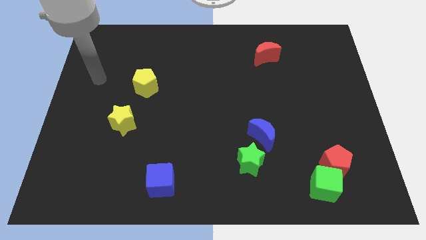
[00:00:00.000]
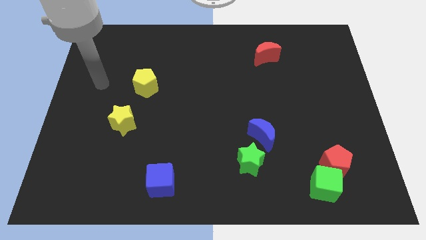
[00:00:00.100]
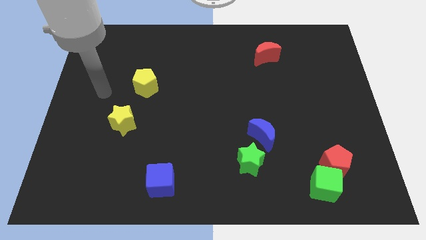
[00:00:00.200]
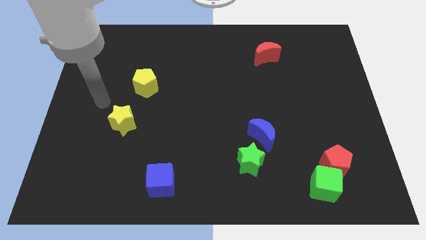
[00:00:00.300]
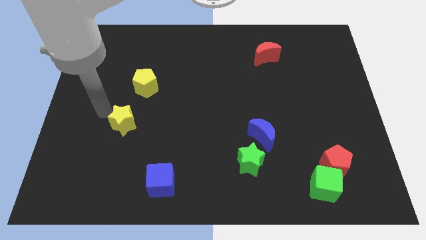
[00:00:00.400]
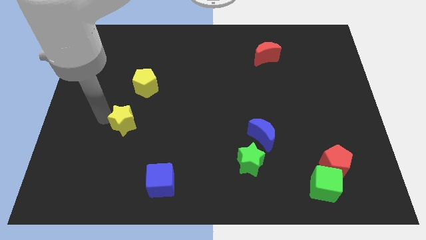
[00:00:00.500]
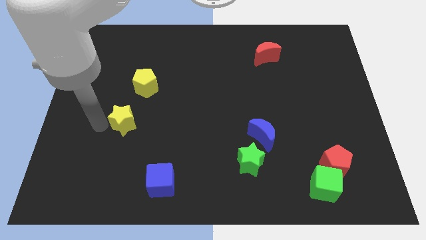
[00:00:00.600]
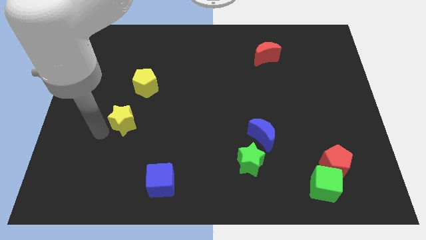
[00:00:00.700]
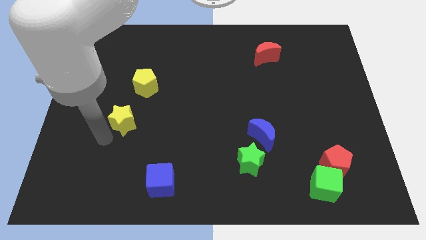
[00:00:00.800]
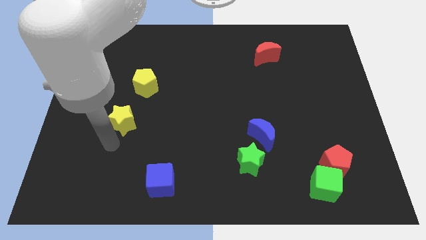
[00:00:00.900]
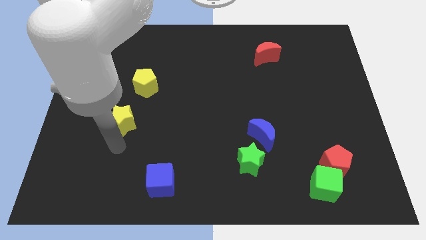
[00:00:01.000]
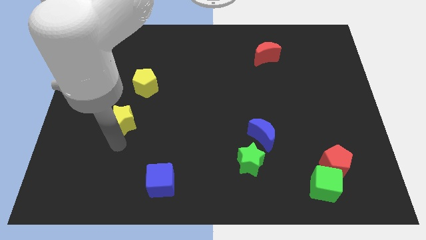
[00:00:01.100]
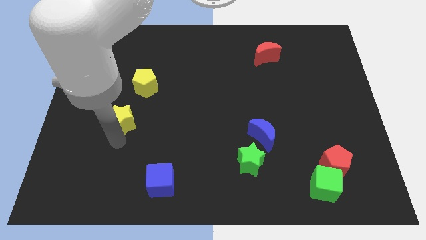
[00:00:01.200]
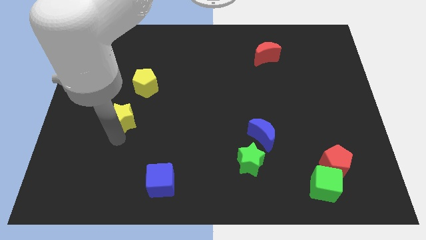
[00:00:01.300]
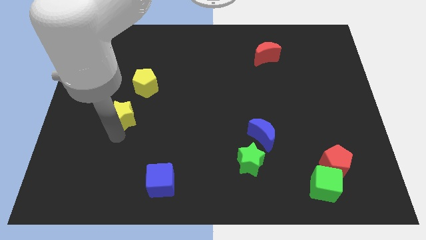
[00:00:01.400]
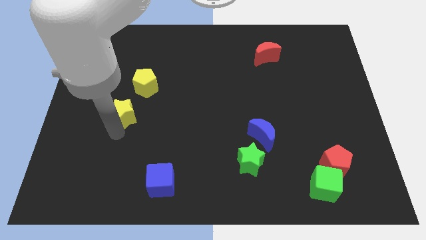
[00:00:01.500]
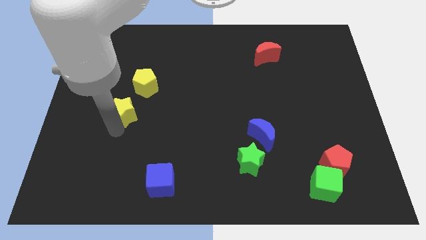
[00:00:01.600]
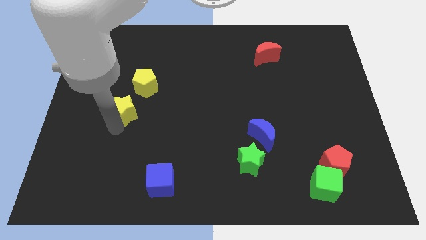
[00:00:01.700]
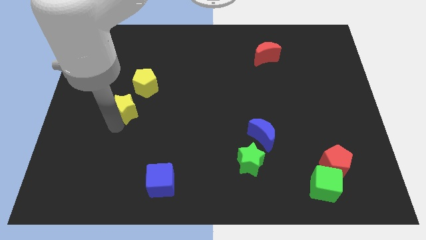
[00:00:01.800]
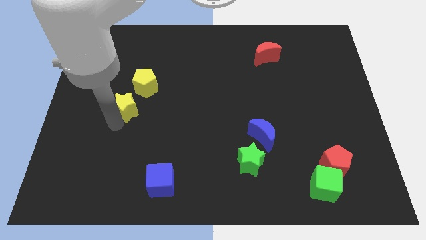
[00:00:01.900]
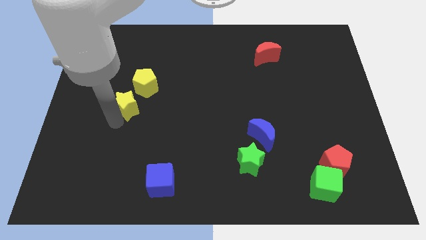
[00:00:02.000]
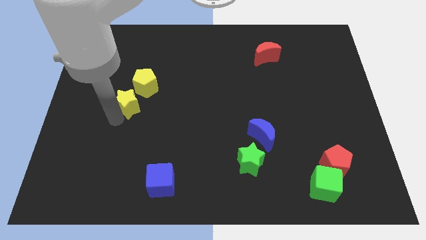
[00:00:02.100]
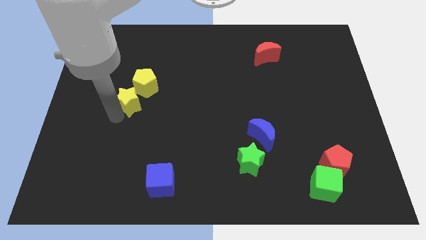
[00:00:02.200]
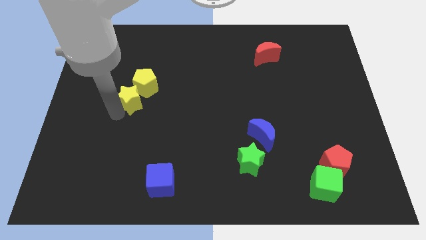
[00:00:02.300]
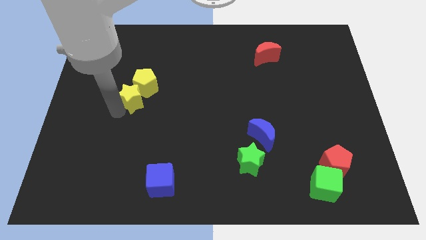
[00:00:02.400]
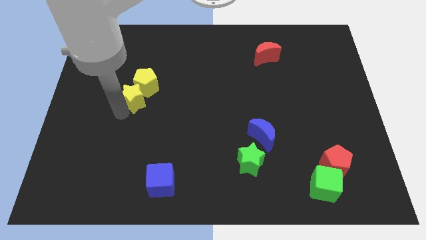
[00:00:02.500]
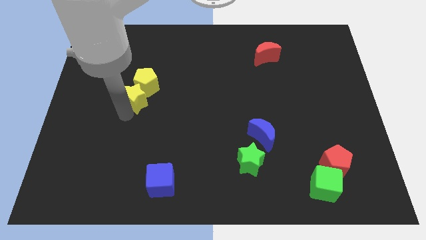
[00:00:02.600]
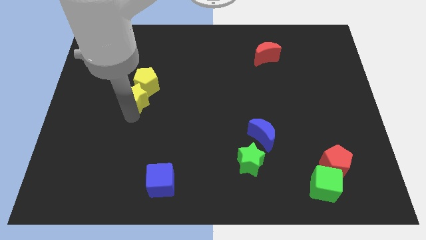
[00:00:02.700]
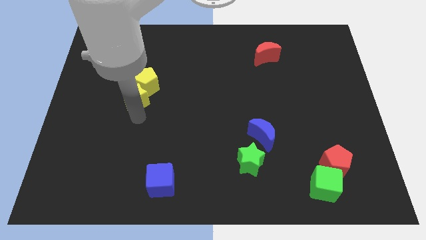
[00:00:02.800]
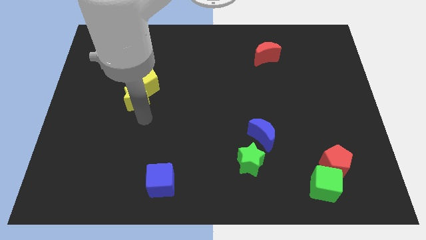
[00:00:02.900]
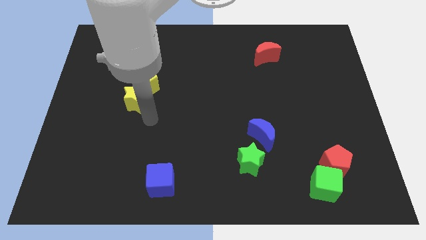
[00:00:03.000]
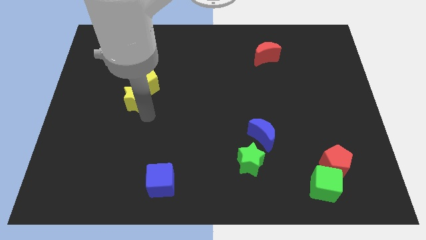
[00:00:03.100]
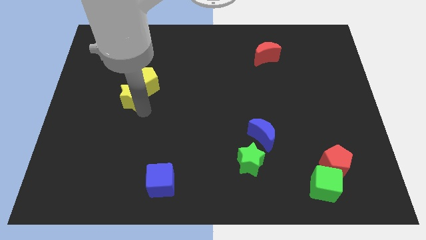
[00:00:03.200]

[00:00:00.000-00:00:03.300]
slightly push the yellow star upwards

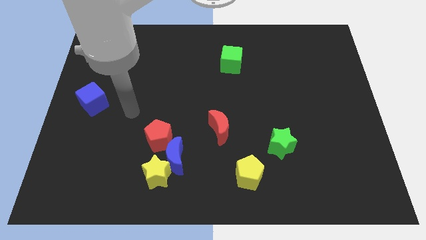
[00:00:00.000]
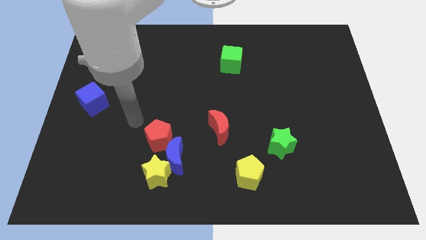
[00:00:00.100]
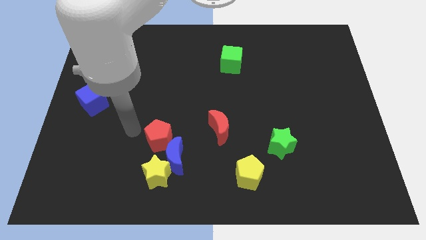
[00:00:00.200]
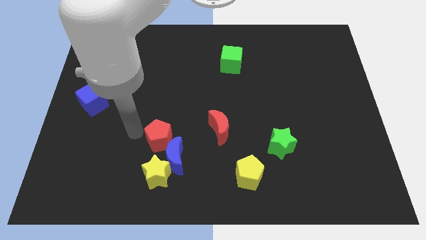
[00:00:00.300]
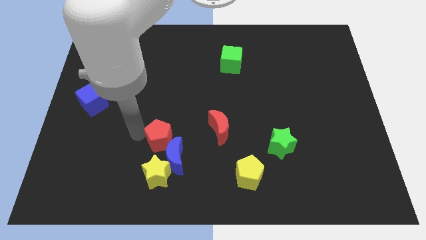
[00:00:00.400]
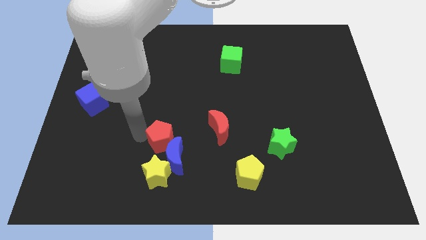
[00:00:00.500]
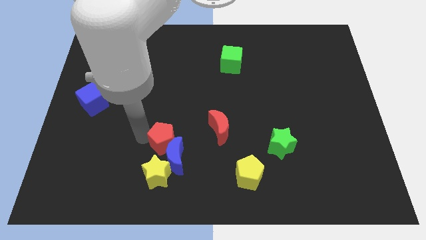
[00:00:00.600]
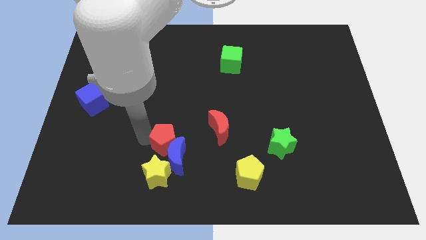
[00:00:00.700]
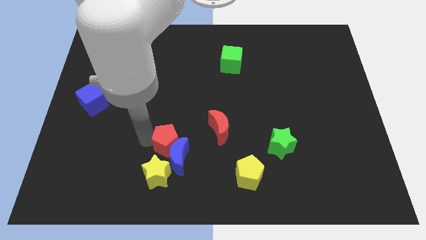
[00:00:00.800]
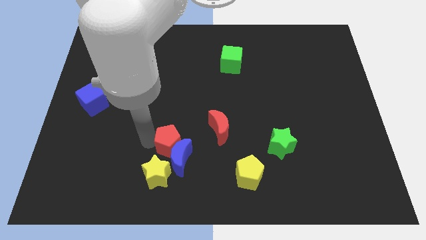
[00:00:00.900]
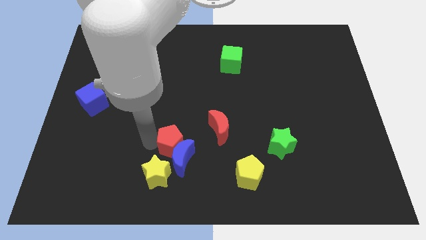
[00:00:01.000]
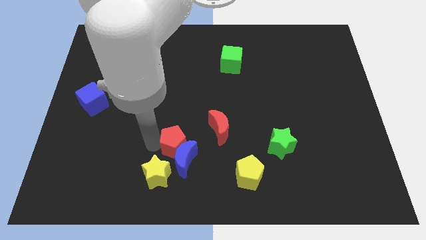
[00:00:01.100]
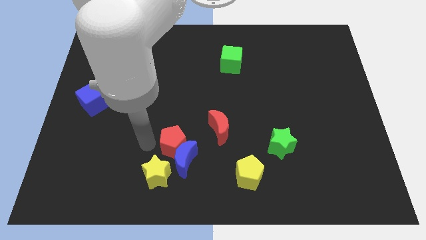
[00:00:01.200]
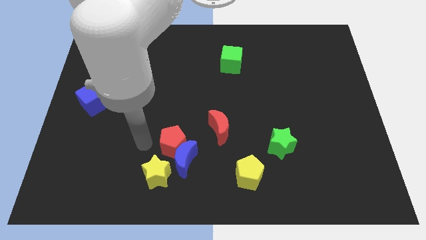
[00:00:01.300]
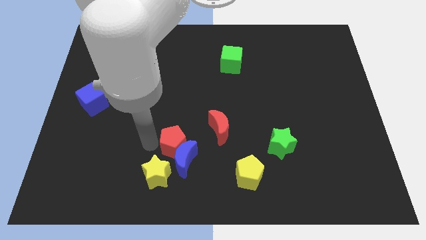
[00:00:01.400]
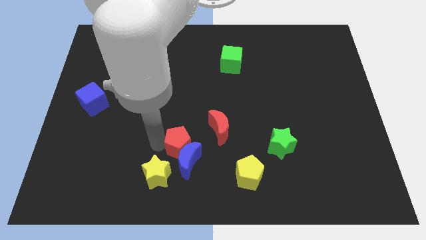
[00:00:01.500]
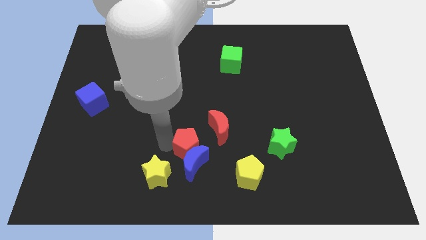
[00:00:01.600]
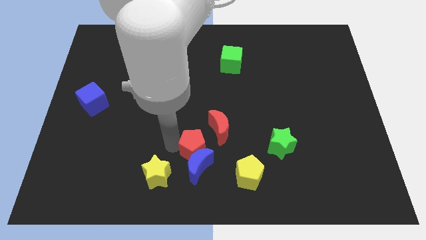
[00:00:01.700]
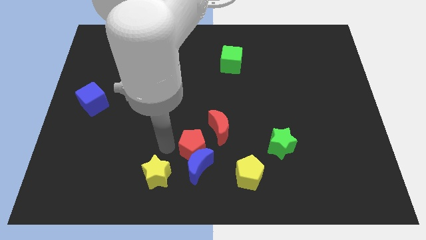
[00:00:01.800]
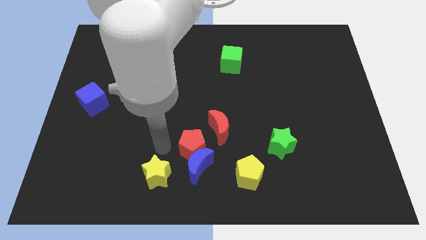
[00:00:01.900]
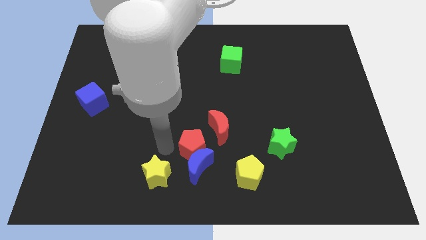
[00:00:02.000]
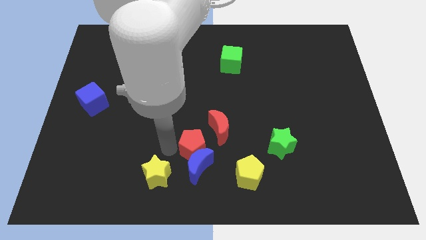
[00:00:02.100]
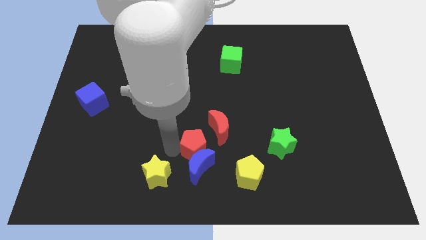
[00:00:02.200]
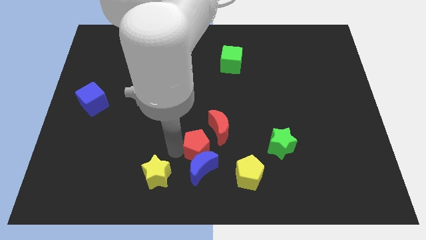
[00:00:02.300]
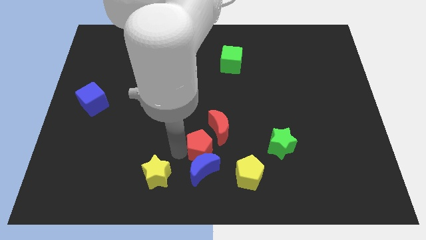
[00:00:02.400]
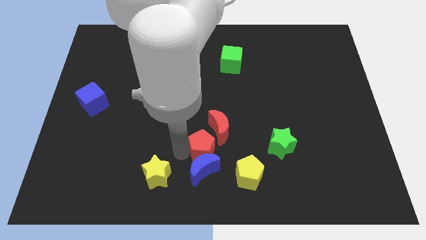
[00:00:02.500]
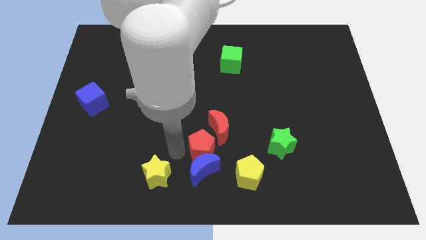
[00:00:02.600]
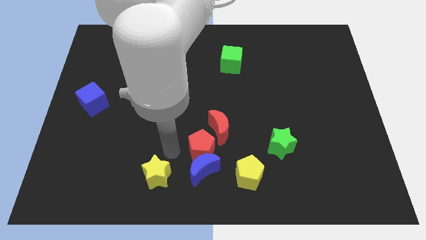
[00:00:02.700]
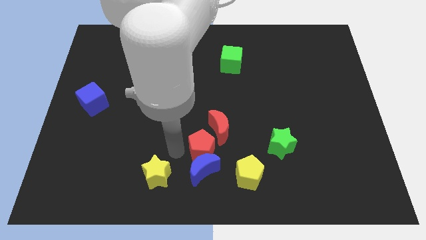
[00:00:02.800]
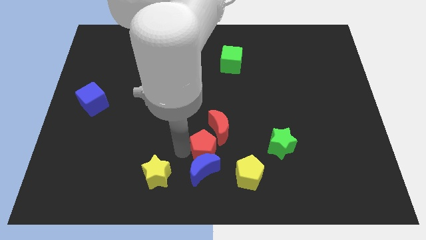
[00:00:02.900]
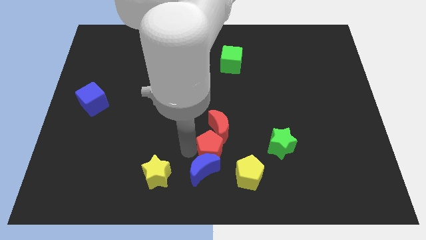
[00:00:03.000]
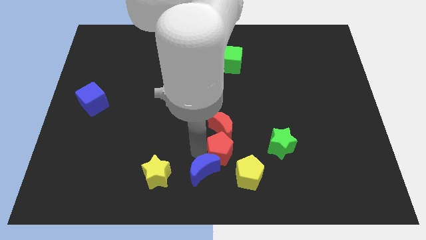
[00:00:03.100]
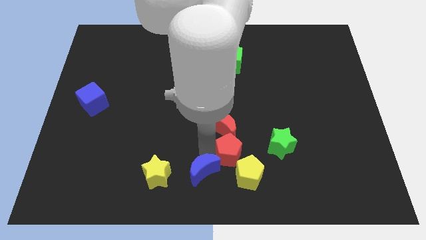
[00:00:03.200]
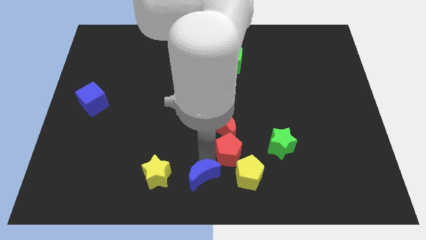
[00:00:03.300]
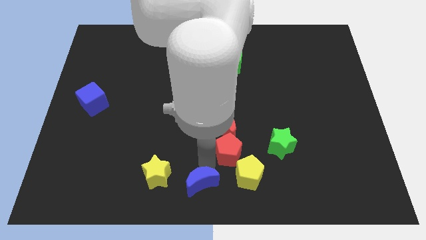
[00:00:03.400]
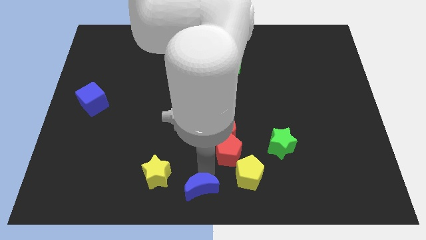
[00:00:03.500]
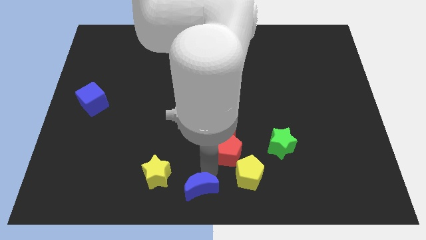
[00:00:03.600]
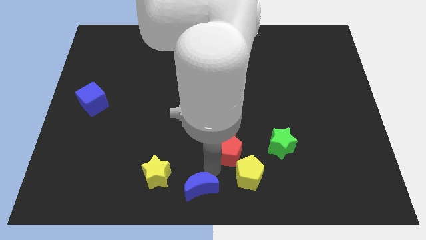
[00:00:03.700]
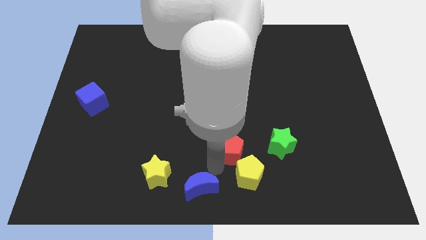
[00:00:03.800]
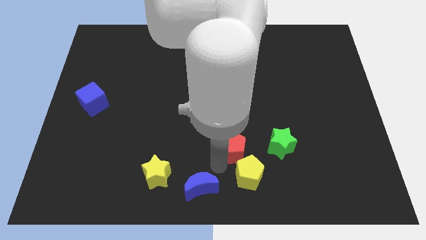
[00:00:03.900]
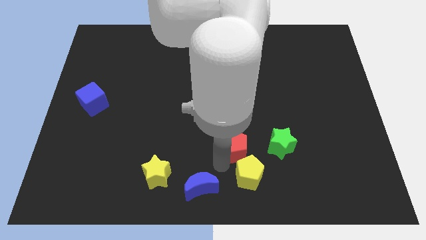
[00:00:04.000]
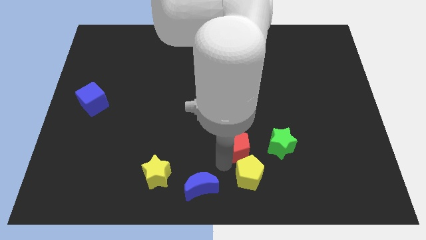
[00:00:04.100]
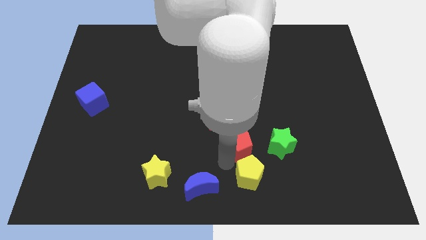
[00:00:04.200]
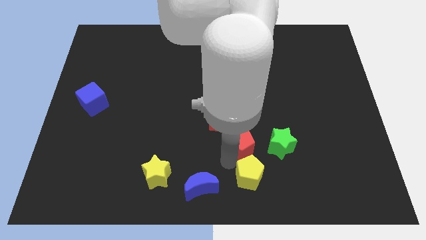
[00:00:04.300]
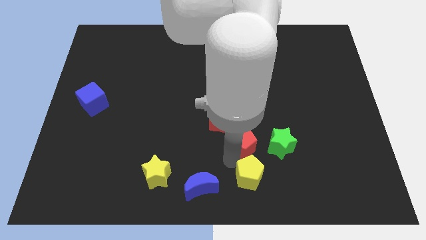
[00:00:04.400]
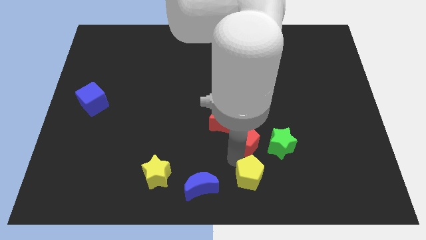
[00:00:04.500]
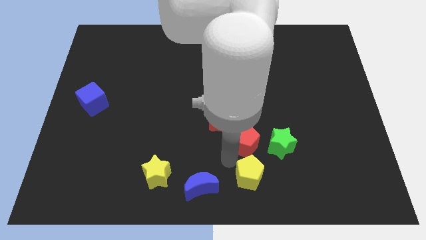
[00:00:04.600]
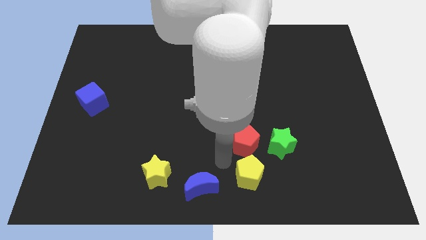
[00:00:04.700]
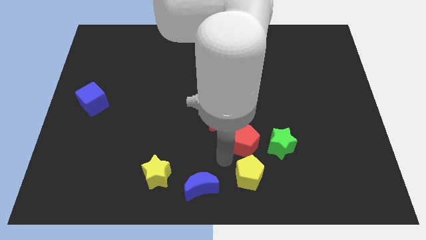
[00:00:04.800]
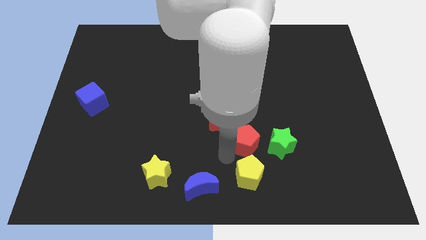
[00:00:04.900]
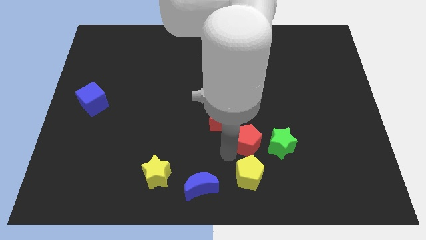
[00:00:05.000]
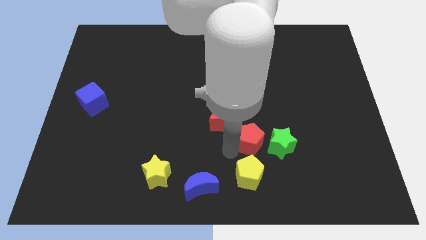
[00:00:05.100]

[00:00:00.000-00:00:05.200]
push the red pentagon right
